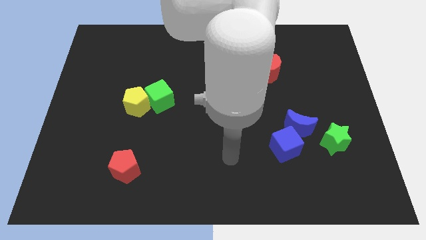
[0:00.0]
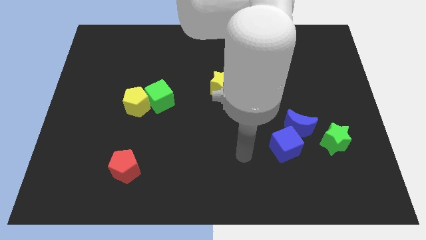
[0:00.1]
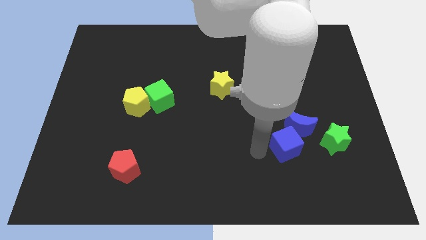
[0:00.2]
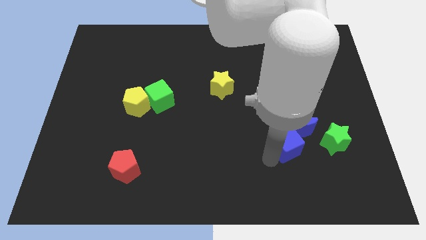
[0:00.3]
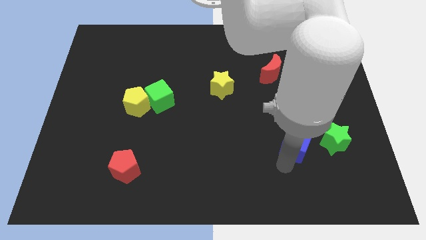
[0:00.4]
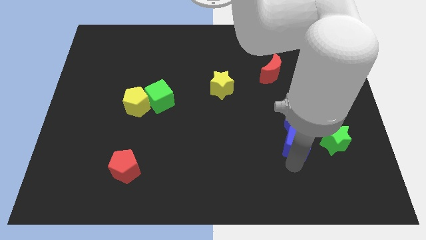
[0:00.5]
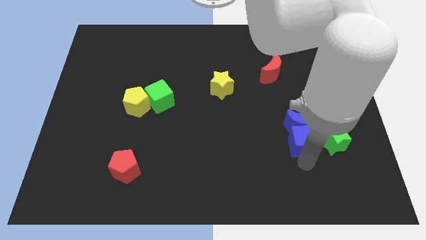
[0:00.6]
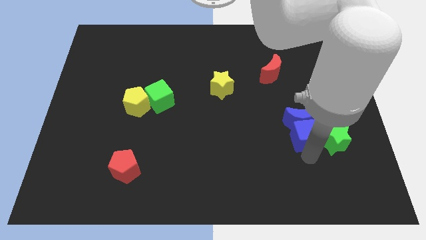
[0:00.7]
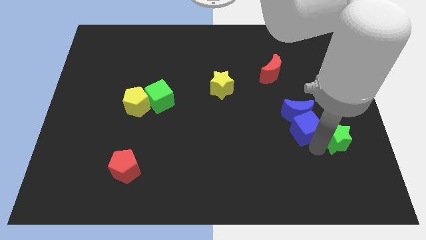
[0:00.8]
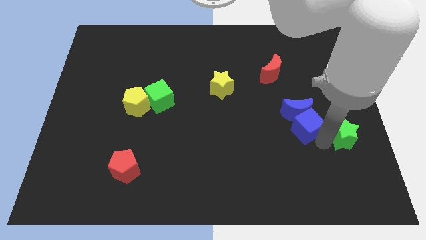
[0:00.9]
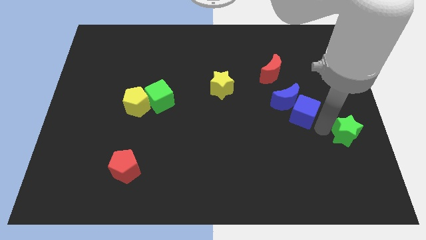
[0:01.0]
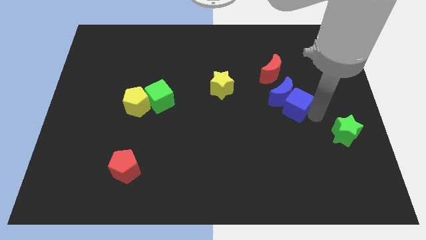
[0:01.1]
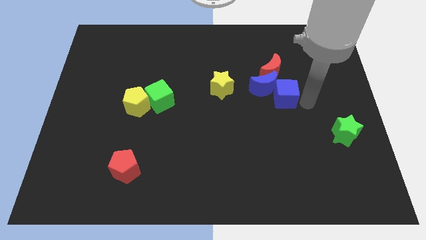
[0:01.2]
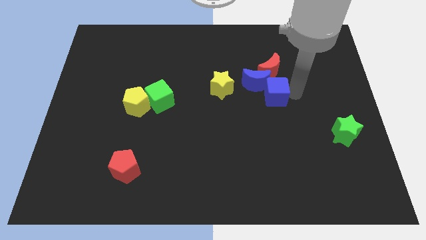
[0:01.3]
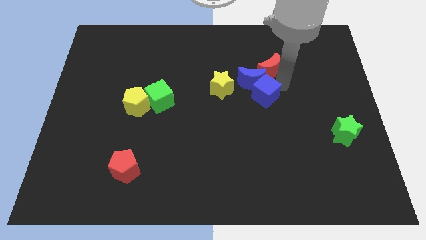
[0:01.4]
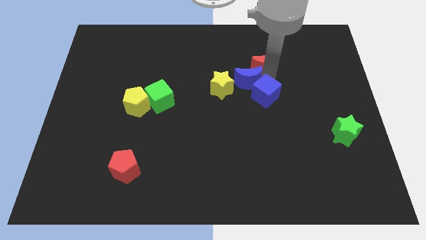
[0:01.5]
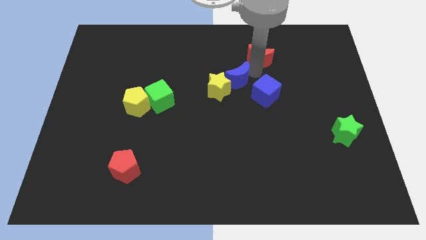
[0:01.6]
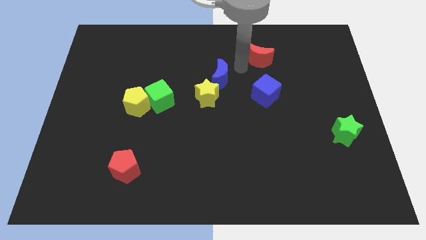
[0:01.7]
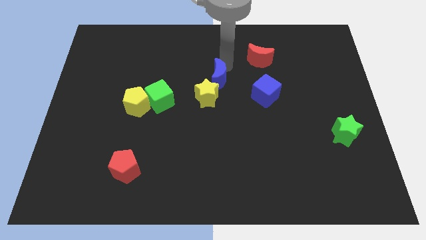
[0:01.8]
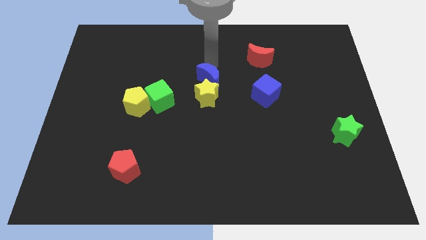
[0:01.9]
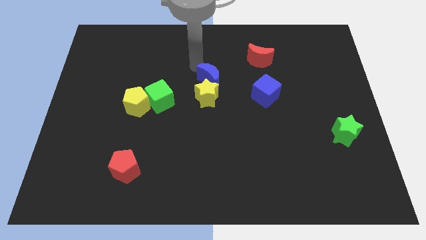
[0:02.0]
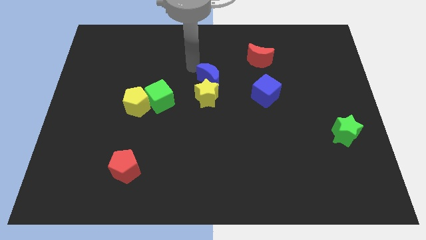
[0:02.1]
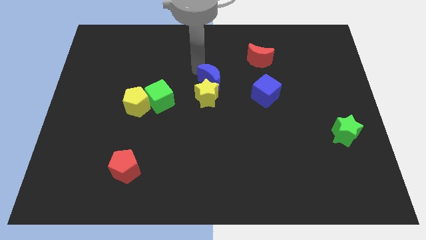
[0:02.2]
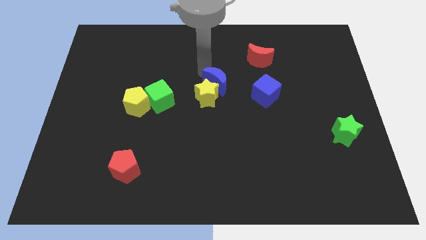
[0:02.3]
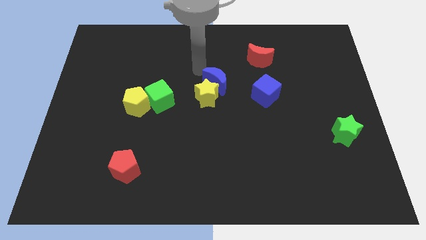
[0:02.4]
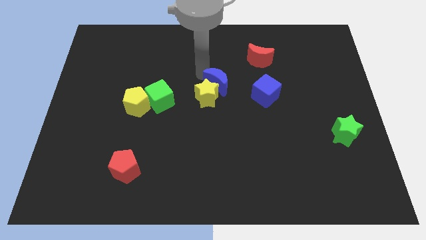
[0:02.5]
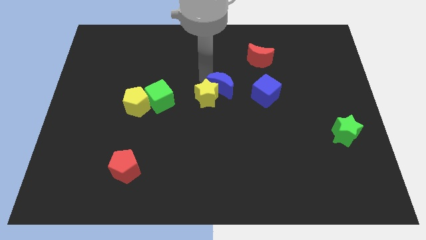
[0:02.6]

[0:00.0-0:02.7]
slightly slide the blue moon left

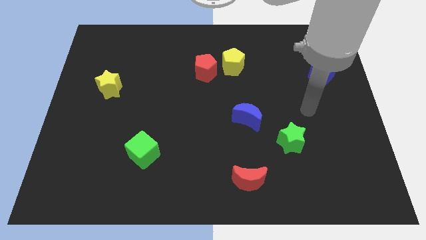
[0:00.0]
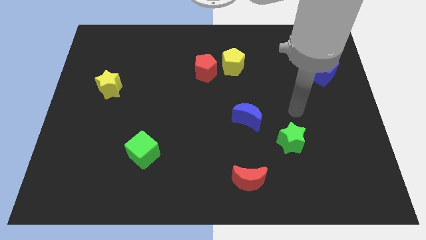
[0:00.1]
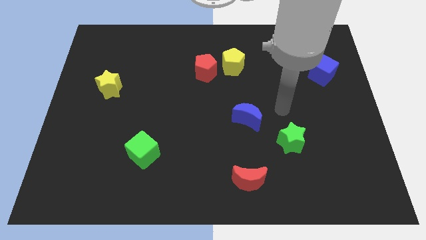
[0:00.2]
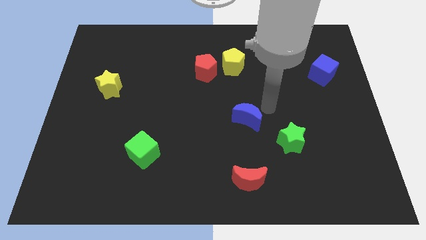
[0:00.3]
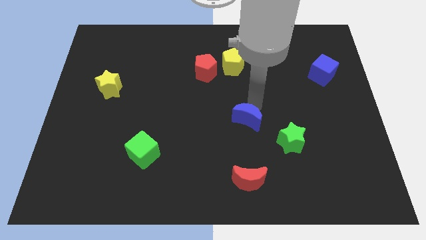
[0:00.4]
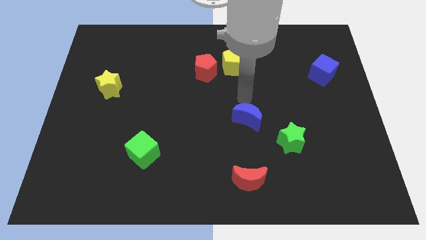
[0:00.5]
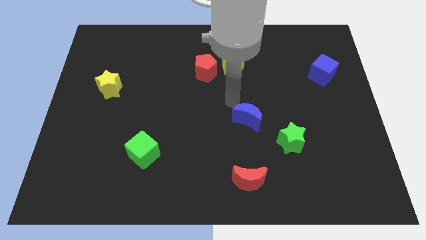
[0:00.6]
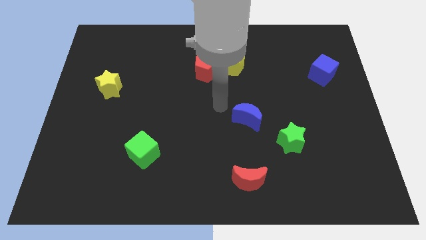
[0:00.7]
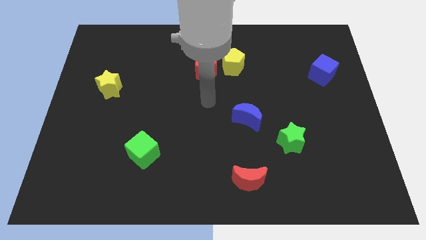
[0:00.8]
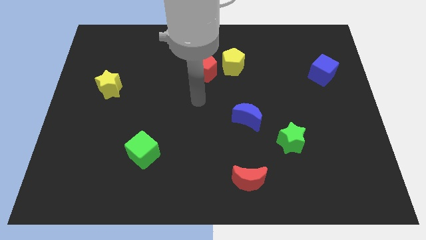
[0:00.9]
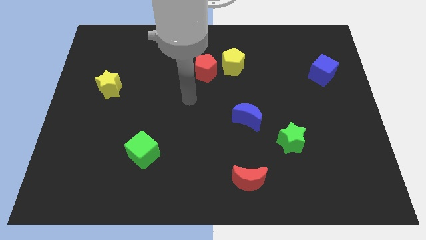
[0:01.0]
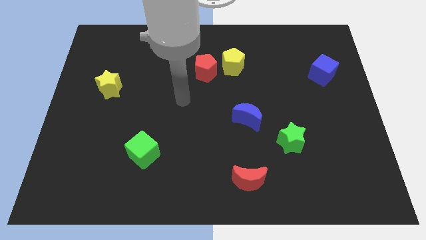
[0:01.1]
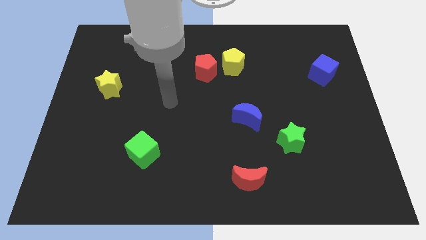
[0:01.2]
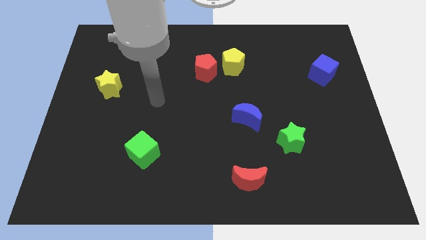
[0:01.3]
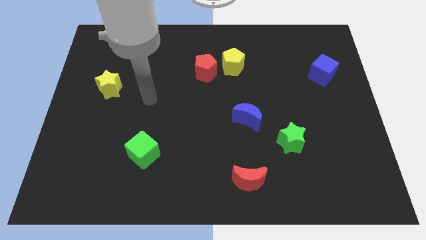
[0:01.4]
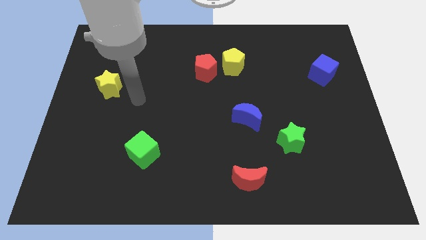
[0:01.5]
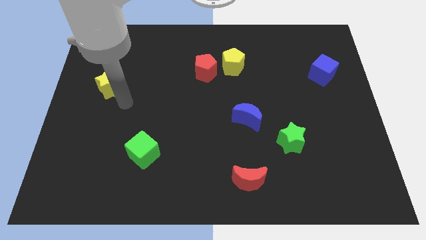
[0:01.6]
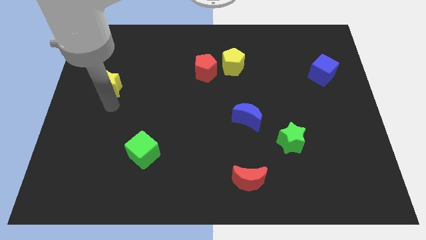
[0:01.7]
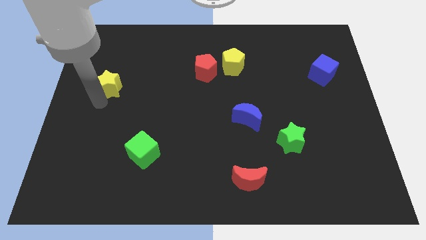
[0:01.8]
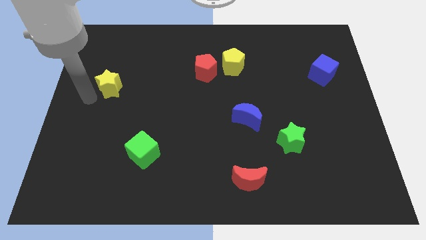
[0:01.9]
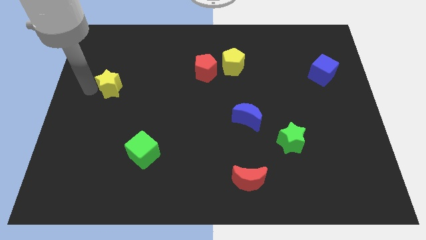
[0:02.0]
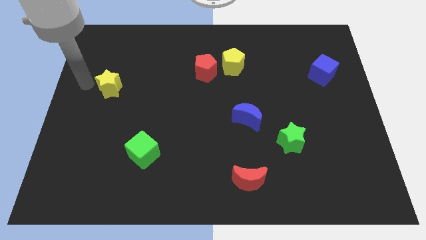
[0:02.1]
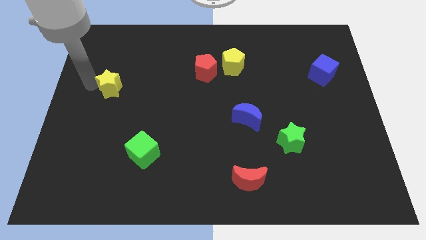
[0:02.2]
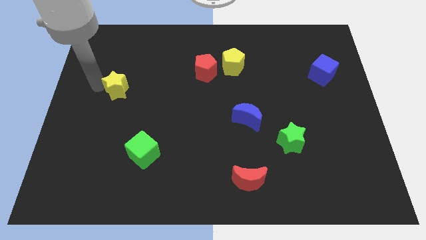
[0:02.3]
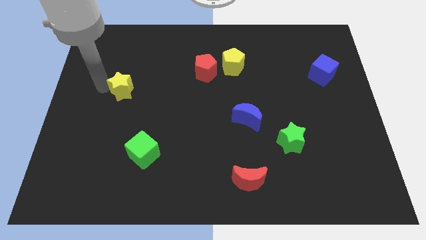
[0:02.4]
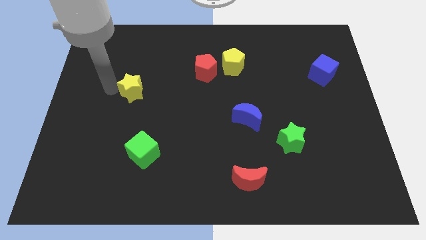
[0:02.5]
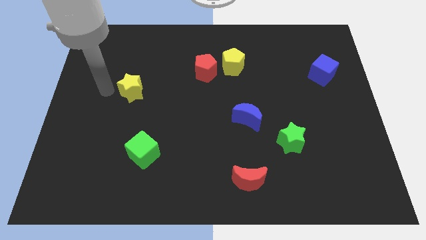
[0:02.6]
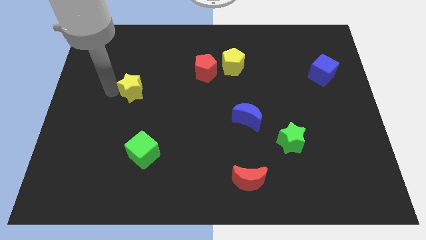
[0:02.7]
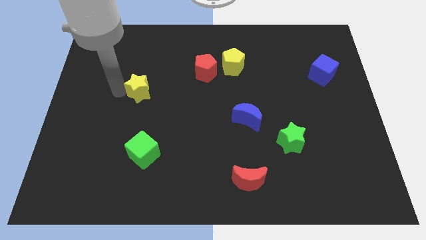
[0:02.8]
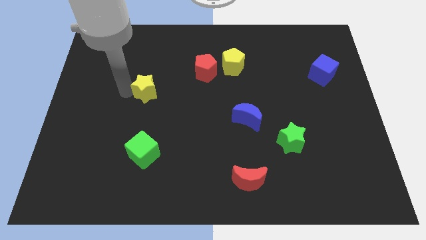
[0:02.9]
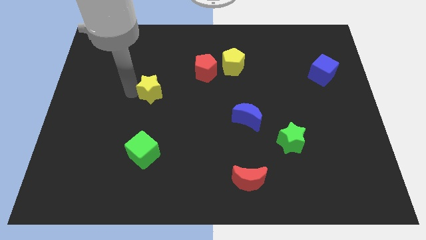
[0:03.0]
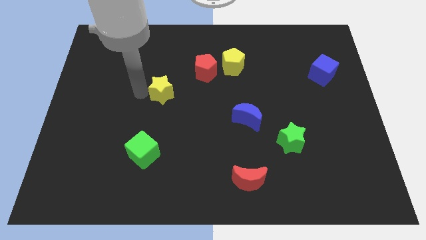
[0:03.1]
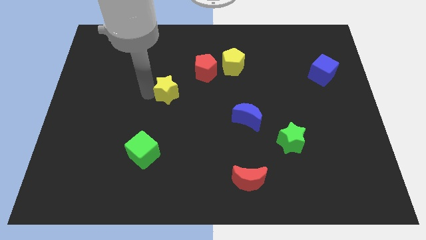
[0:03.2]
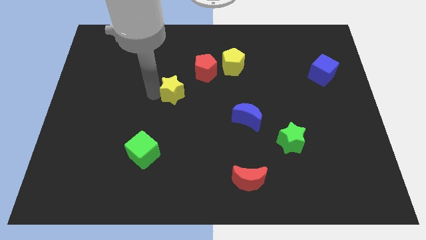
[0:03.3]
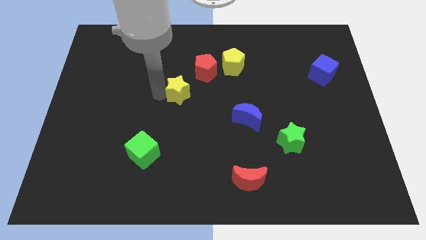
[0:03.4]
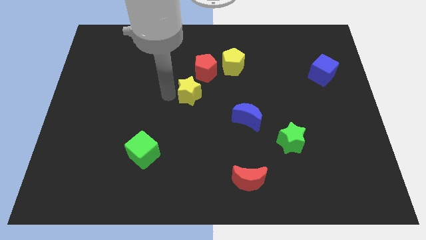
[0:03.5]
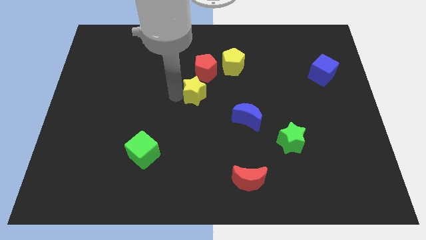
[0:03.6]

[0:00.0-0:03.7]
push the yellow star to the right

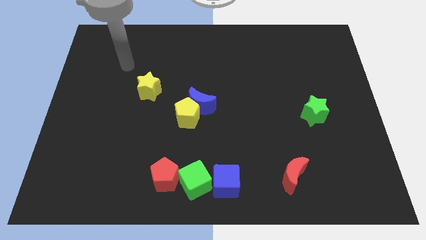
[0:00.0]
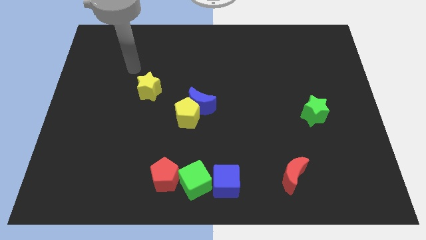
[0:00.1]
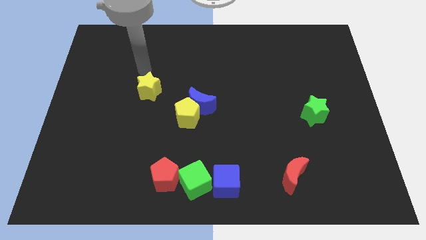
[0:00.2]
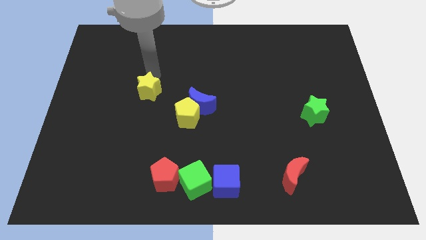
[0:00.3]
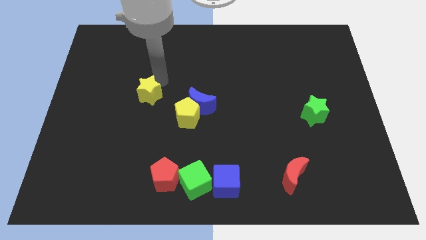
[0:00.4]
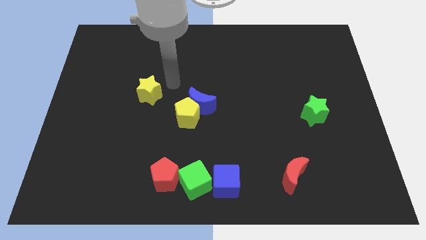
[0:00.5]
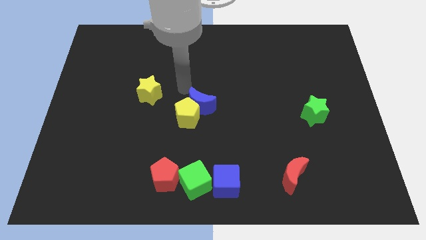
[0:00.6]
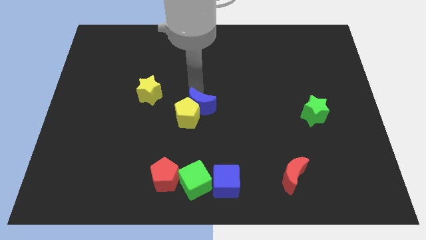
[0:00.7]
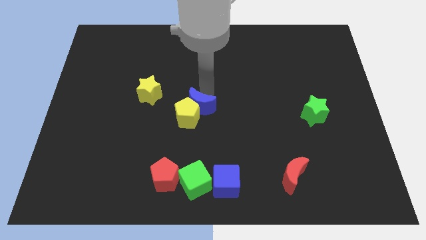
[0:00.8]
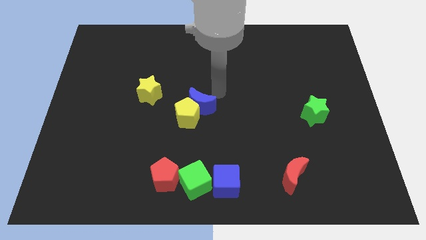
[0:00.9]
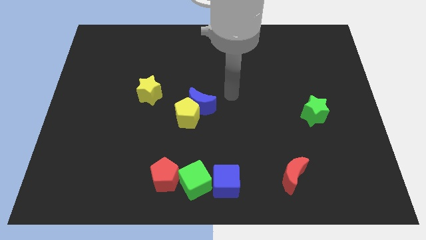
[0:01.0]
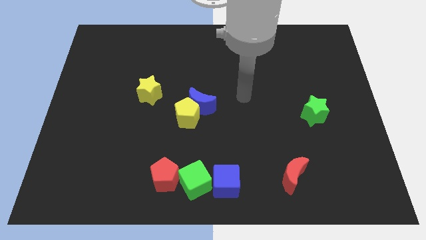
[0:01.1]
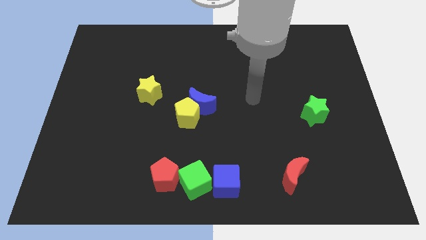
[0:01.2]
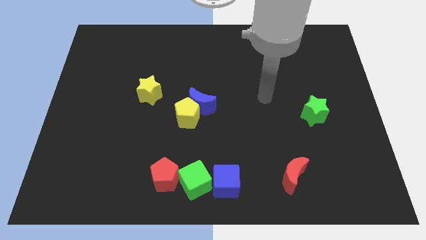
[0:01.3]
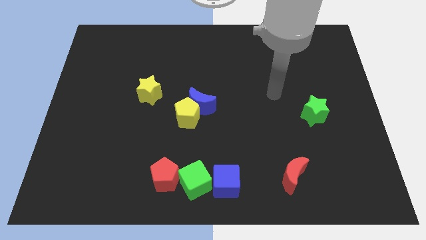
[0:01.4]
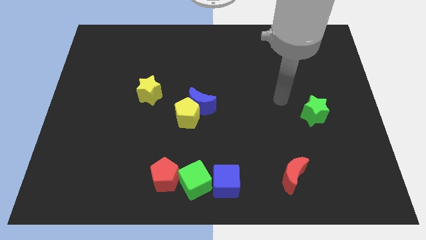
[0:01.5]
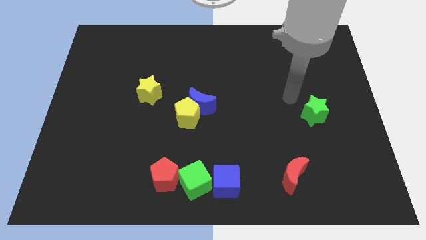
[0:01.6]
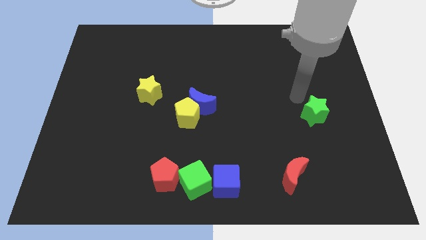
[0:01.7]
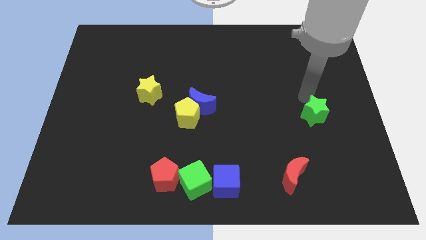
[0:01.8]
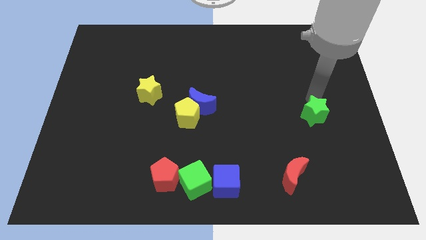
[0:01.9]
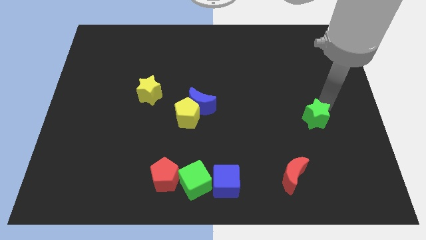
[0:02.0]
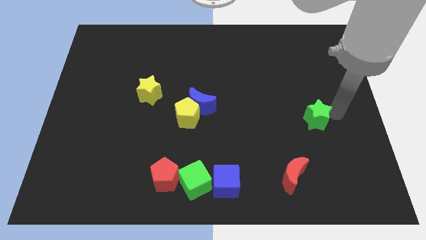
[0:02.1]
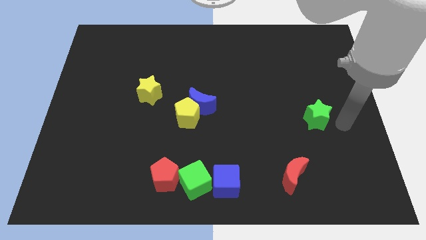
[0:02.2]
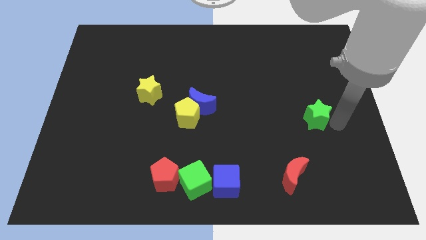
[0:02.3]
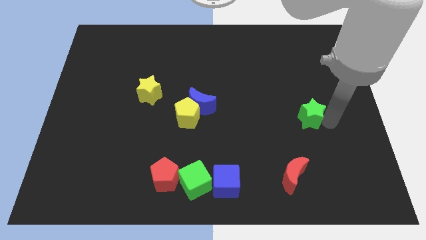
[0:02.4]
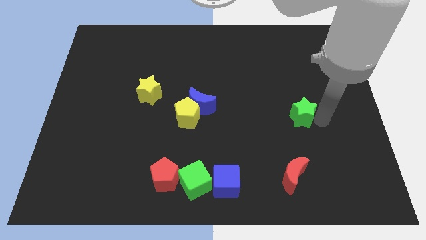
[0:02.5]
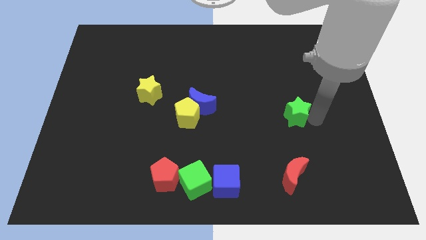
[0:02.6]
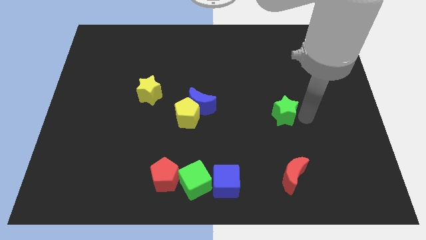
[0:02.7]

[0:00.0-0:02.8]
push the green star slightly to the left
